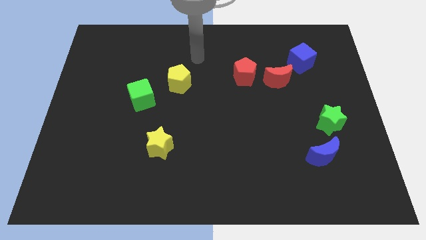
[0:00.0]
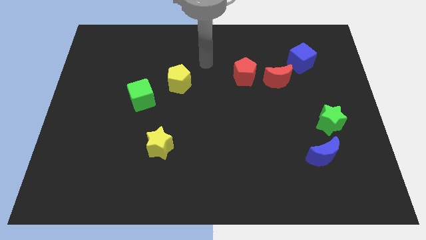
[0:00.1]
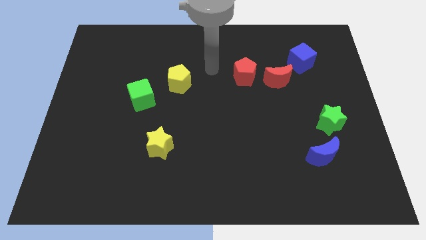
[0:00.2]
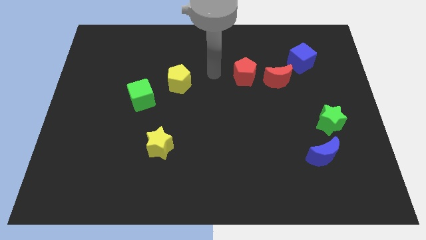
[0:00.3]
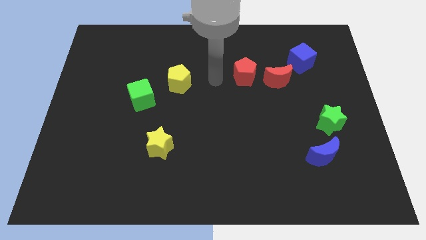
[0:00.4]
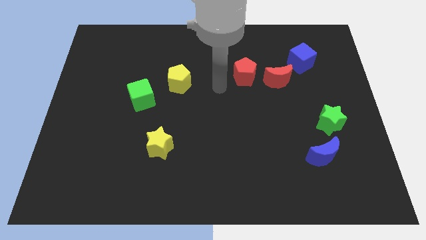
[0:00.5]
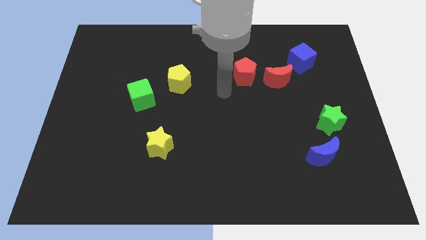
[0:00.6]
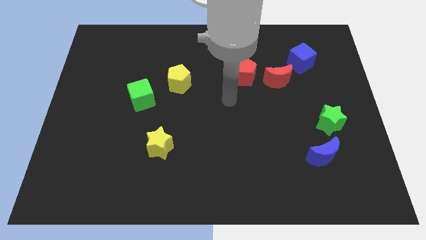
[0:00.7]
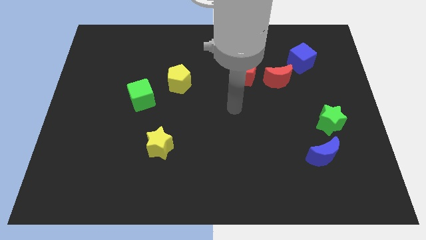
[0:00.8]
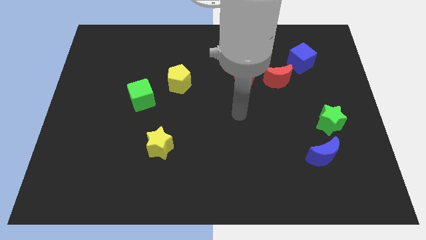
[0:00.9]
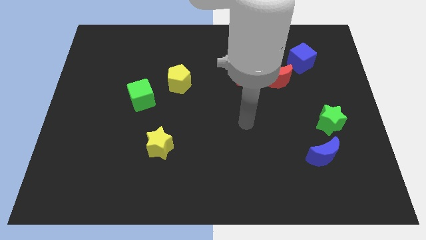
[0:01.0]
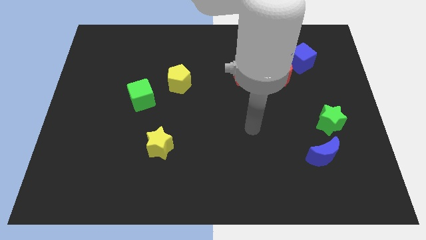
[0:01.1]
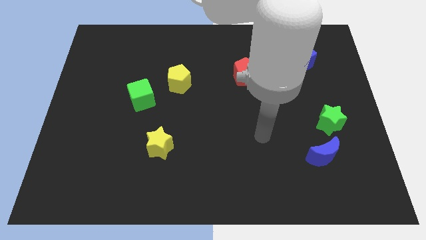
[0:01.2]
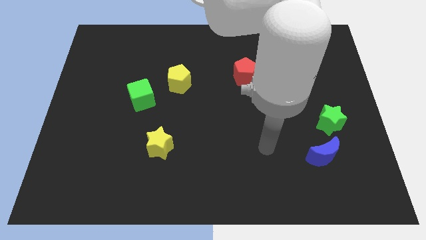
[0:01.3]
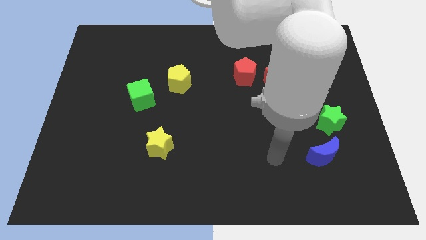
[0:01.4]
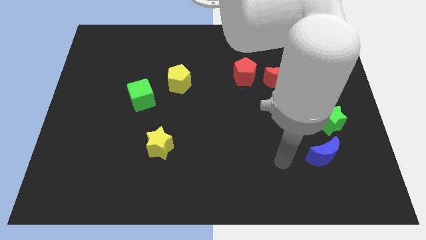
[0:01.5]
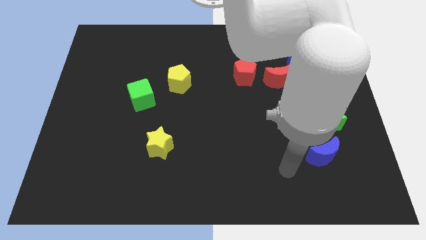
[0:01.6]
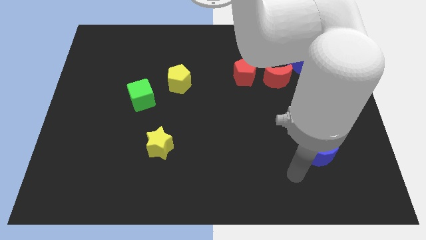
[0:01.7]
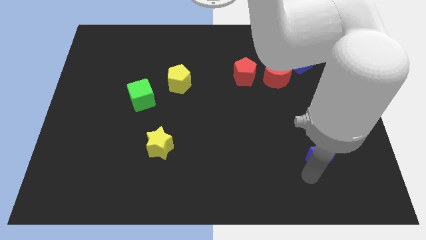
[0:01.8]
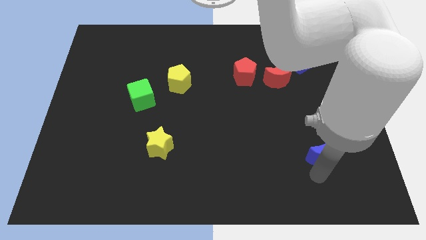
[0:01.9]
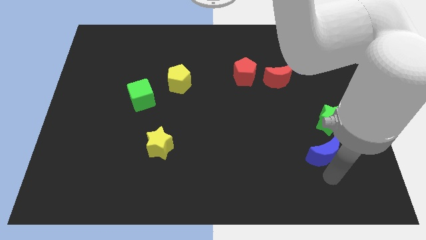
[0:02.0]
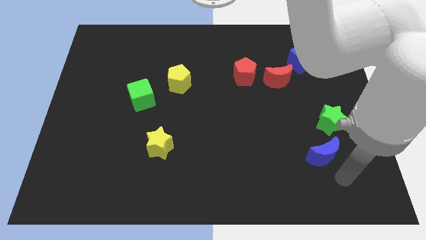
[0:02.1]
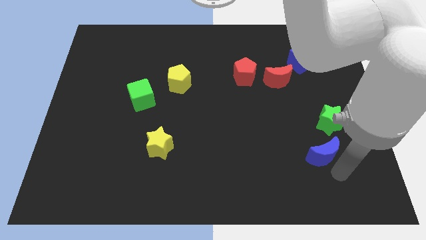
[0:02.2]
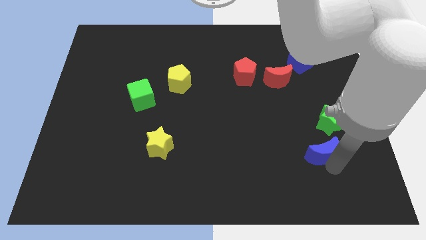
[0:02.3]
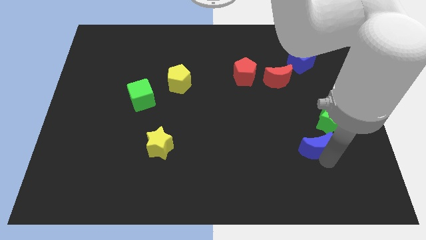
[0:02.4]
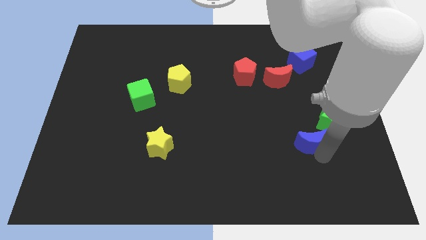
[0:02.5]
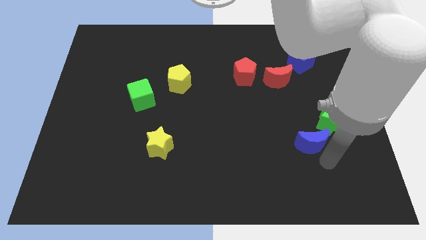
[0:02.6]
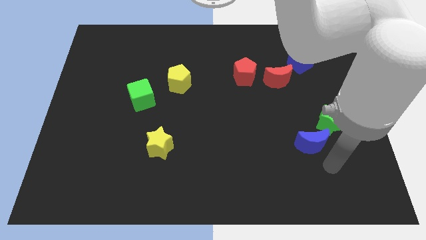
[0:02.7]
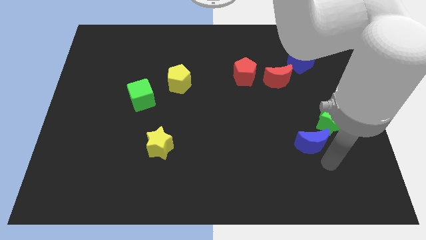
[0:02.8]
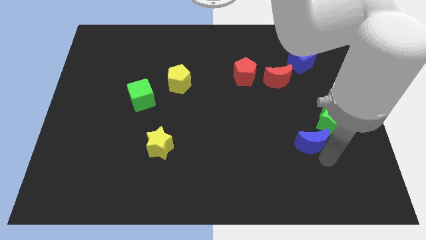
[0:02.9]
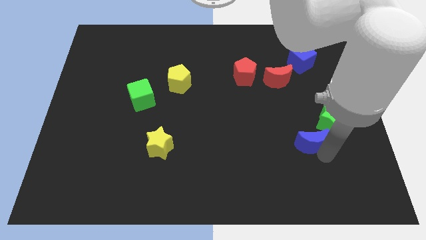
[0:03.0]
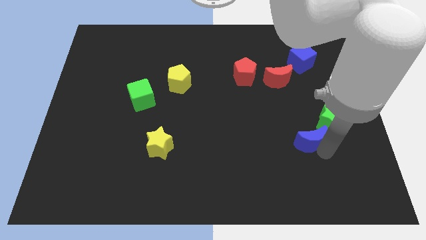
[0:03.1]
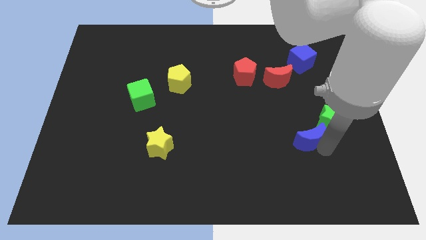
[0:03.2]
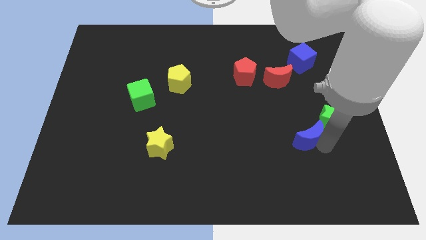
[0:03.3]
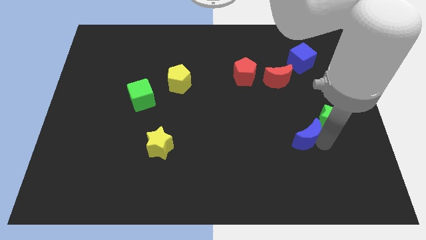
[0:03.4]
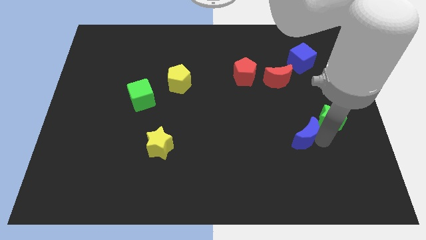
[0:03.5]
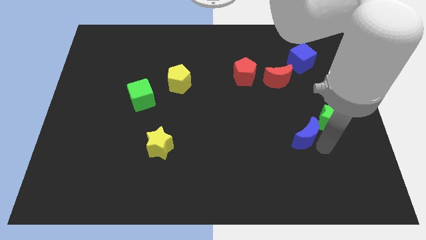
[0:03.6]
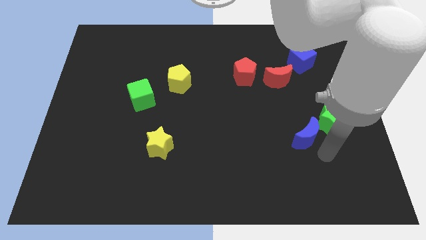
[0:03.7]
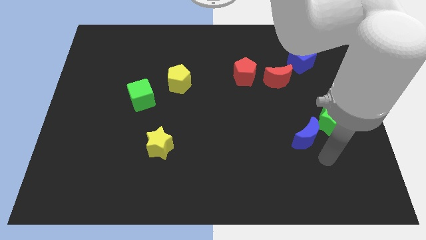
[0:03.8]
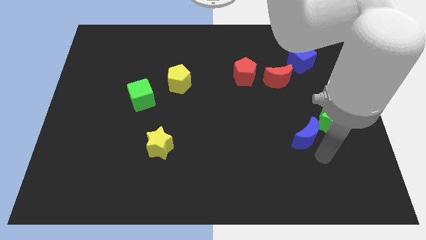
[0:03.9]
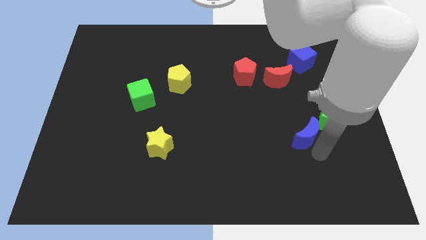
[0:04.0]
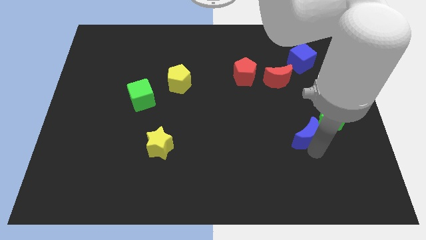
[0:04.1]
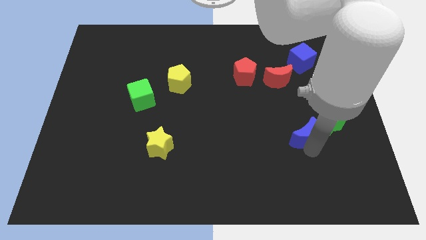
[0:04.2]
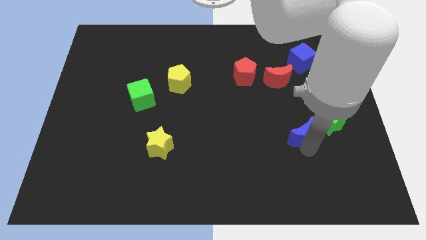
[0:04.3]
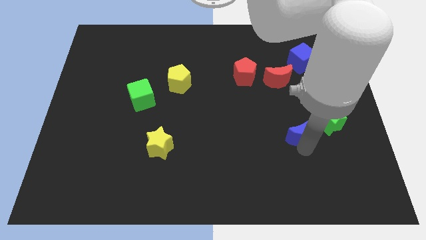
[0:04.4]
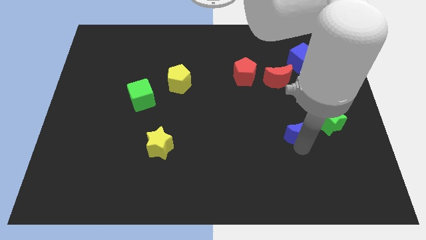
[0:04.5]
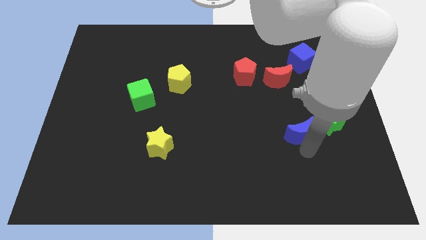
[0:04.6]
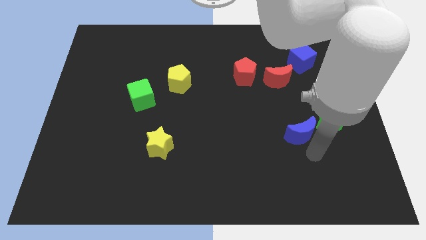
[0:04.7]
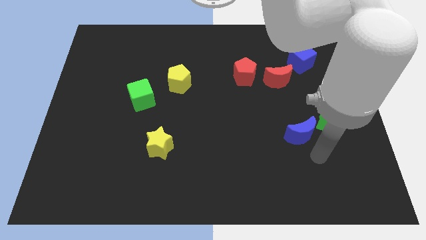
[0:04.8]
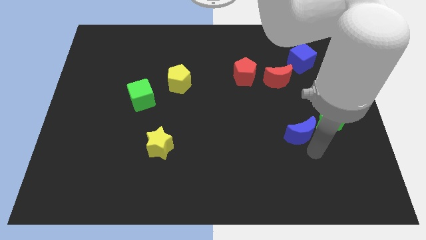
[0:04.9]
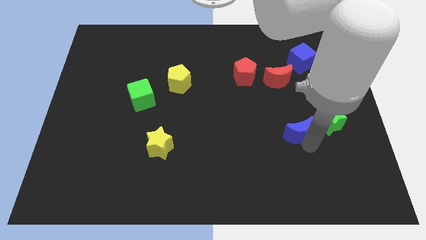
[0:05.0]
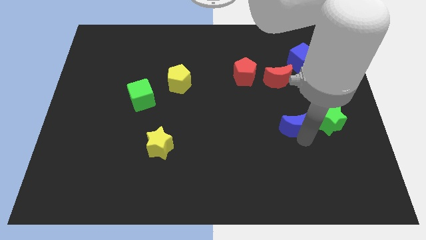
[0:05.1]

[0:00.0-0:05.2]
move the blue moon to the bottom of the red moon

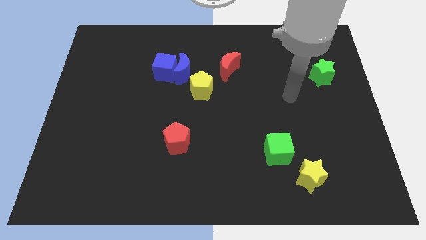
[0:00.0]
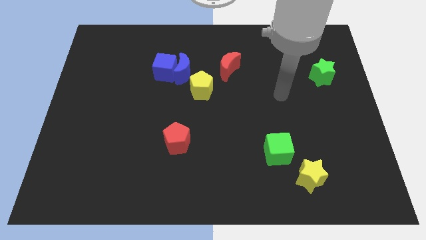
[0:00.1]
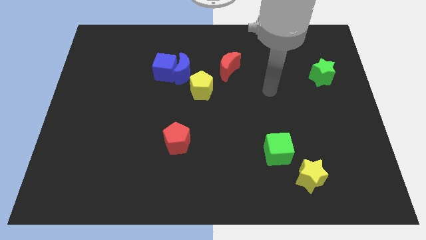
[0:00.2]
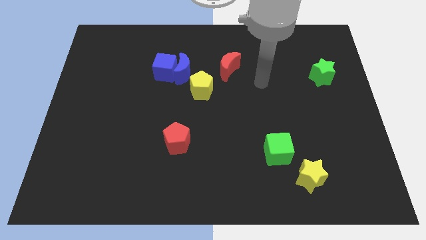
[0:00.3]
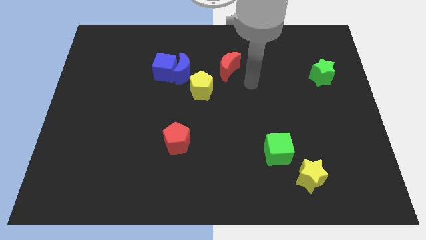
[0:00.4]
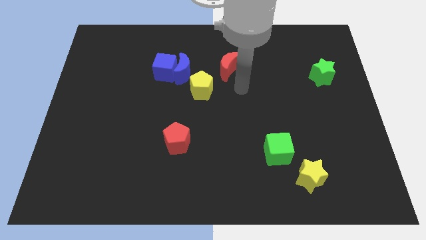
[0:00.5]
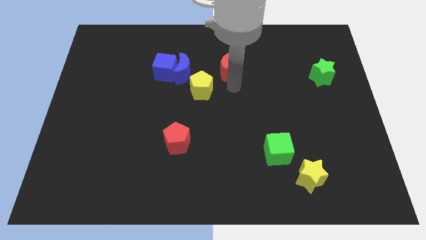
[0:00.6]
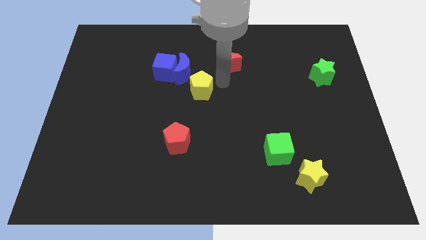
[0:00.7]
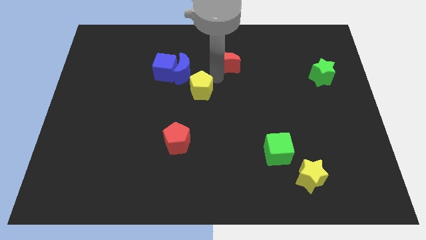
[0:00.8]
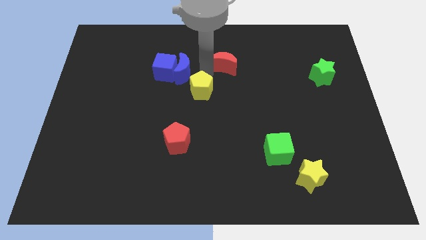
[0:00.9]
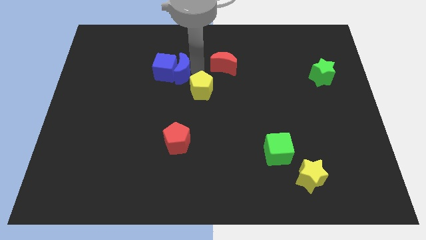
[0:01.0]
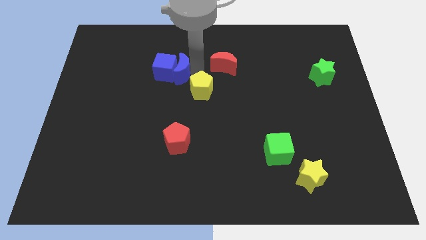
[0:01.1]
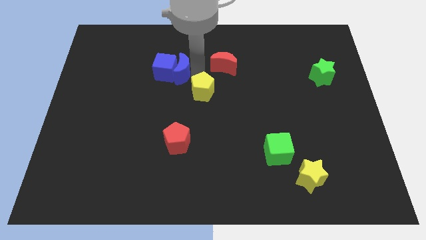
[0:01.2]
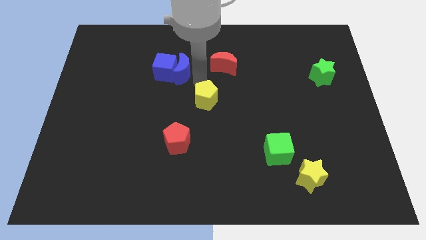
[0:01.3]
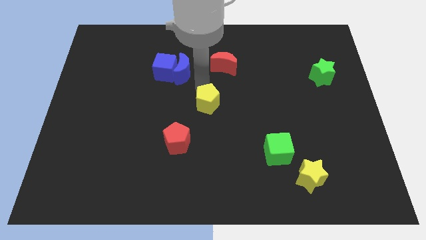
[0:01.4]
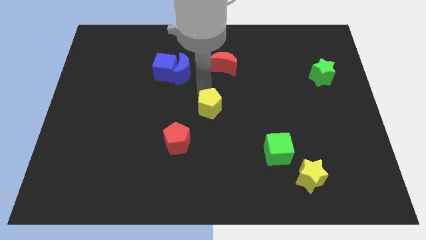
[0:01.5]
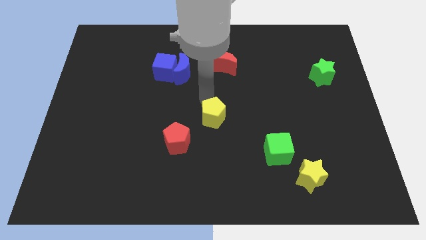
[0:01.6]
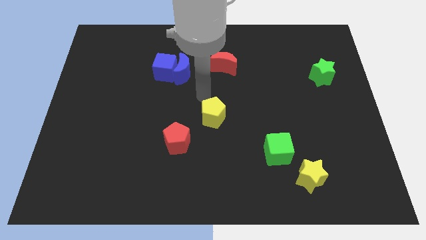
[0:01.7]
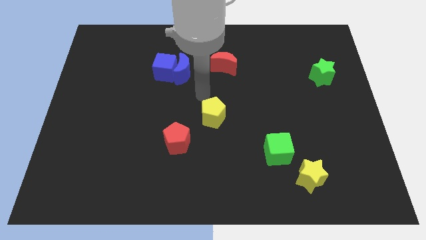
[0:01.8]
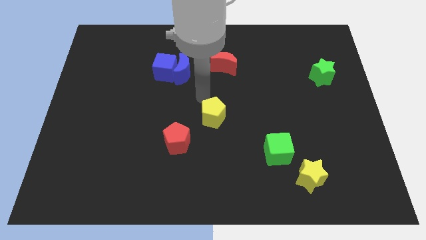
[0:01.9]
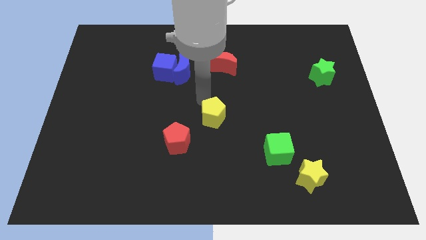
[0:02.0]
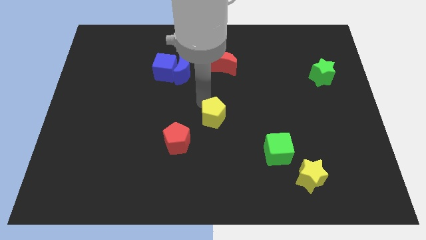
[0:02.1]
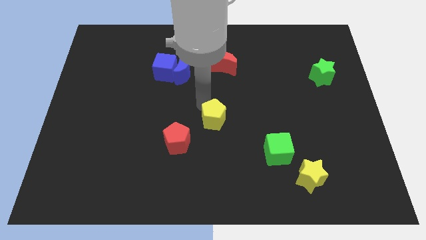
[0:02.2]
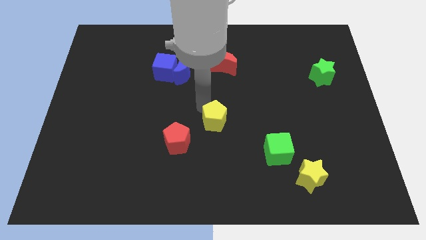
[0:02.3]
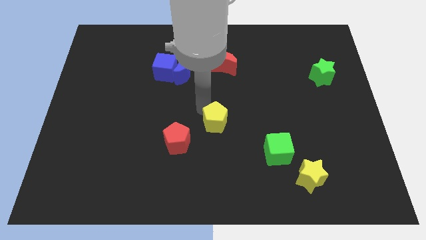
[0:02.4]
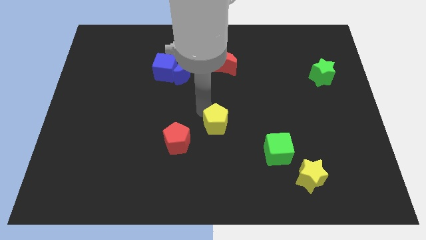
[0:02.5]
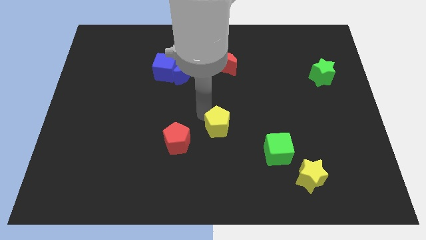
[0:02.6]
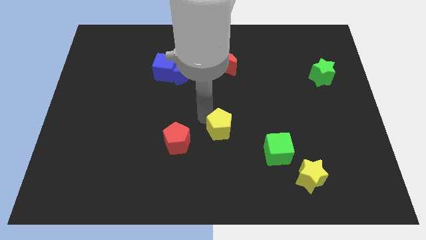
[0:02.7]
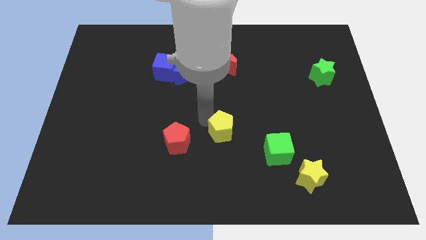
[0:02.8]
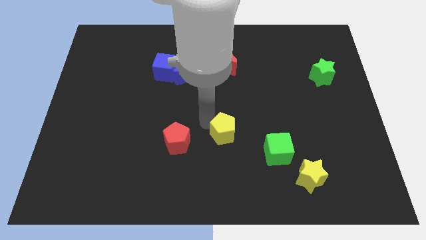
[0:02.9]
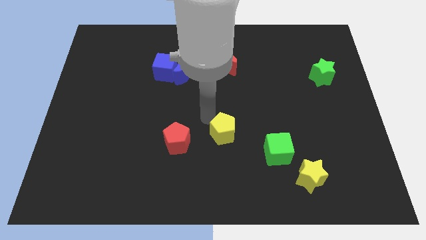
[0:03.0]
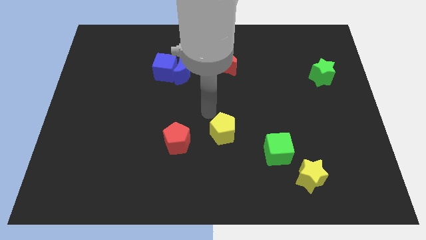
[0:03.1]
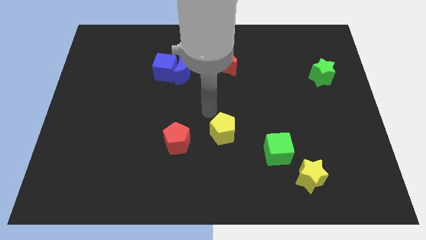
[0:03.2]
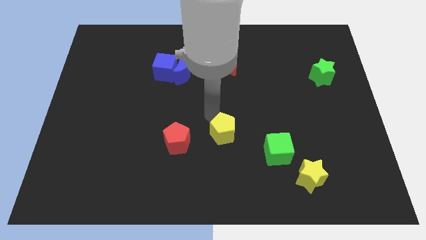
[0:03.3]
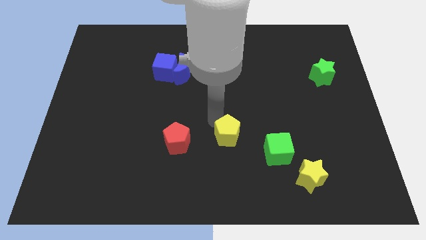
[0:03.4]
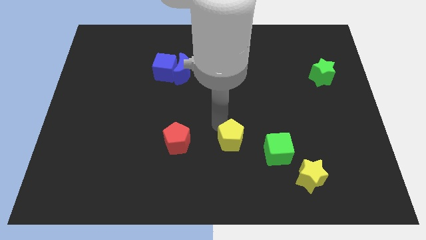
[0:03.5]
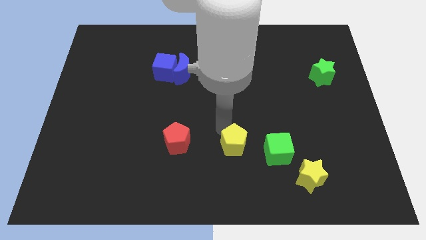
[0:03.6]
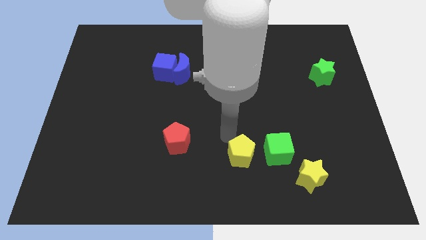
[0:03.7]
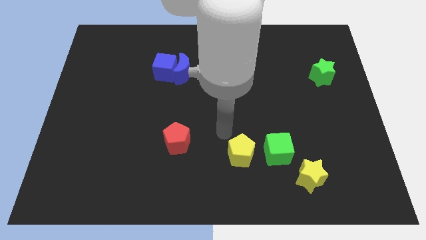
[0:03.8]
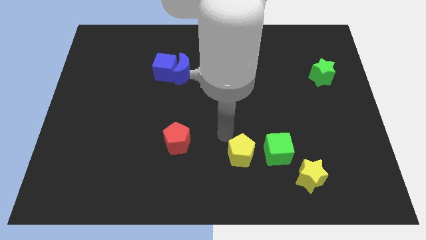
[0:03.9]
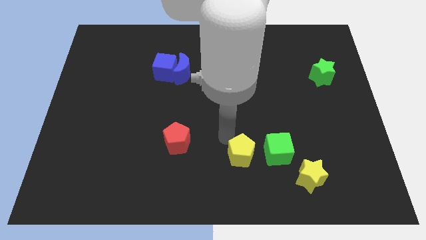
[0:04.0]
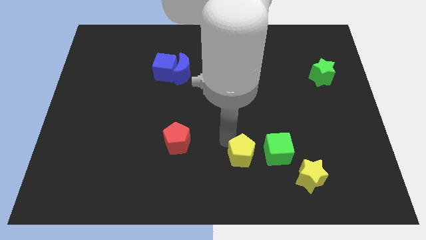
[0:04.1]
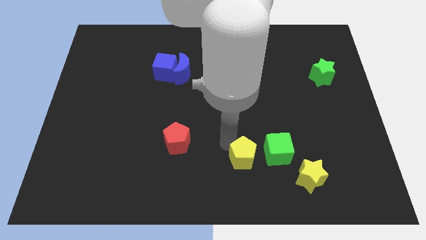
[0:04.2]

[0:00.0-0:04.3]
push the yellow pentagon diagonally down and to the left of the green cube
